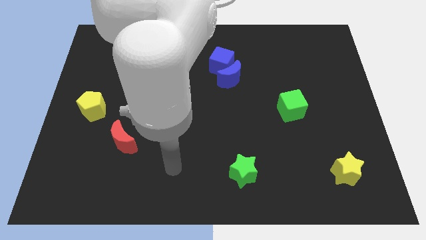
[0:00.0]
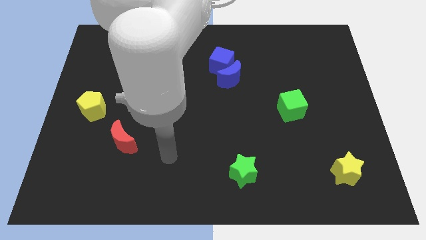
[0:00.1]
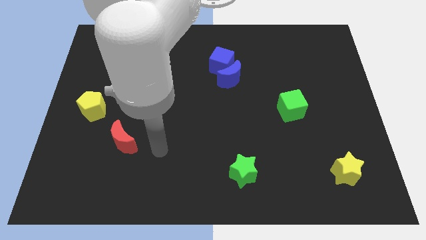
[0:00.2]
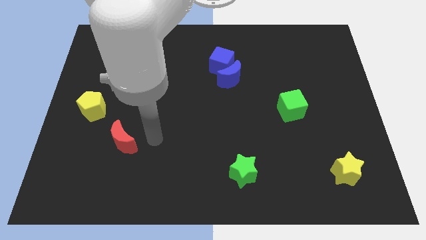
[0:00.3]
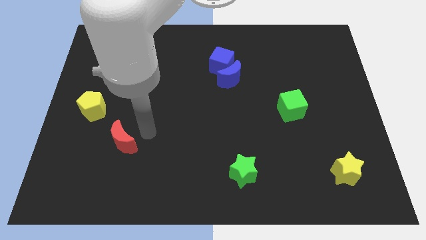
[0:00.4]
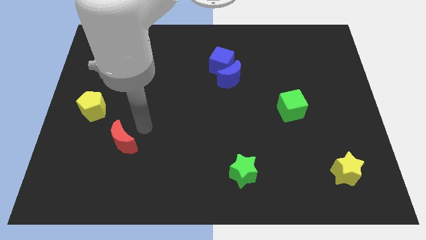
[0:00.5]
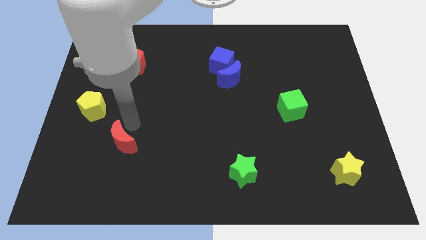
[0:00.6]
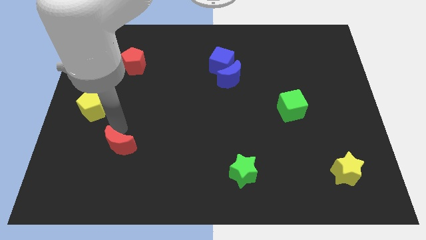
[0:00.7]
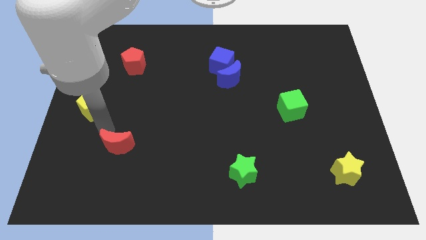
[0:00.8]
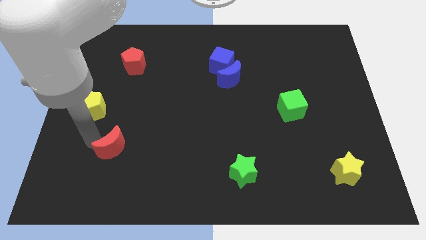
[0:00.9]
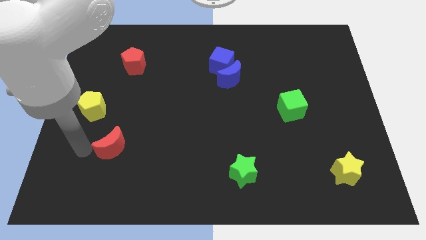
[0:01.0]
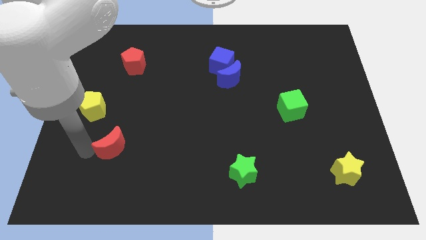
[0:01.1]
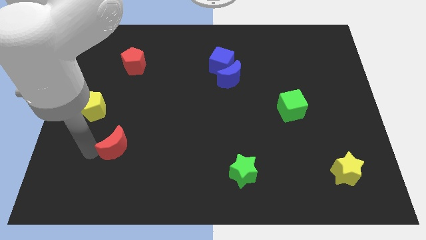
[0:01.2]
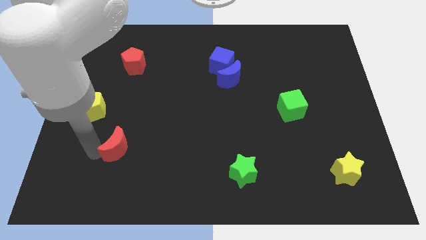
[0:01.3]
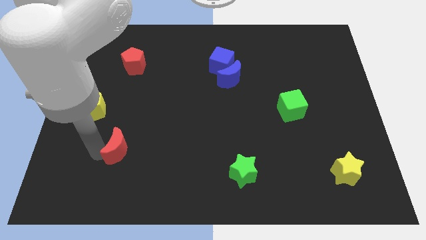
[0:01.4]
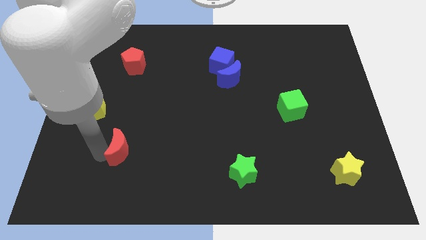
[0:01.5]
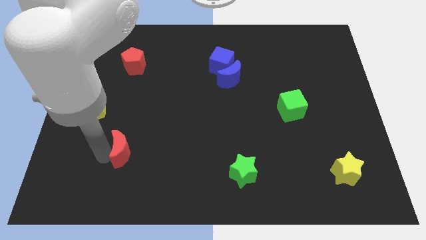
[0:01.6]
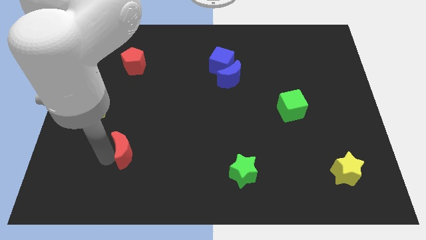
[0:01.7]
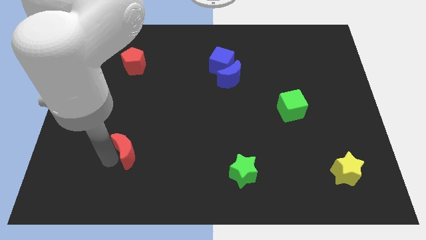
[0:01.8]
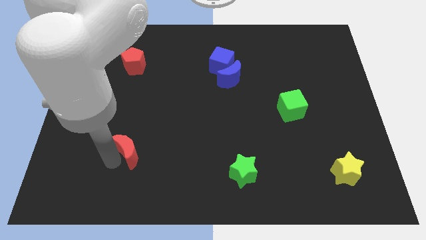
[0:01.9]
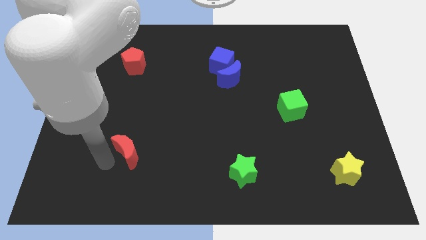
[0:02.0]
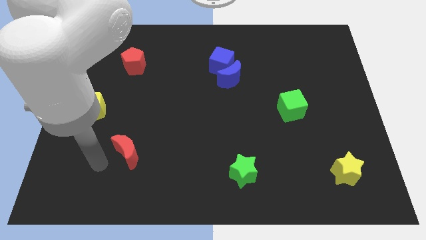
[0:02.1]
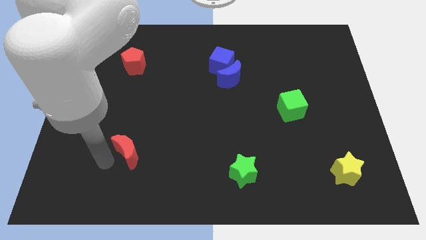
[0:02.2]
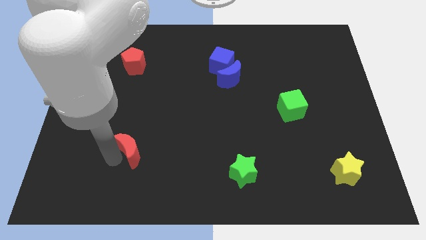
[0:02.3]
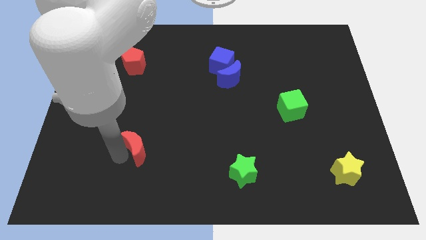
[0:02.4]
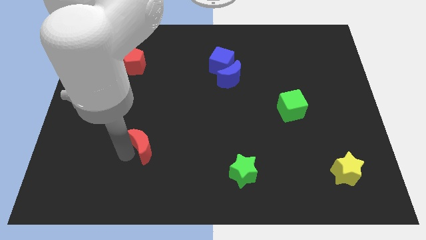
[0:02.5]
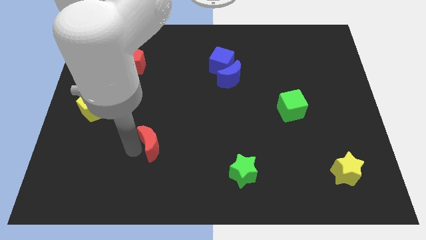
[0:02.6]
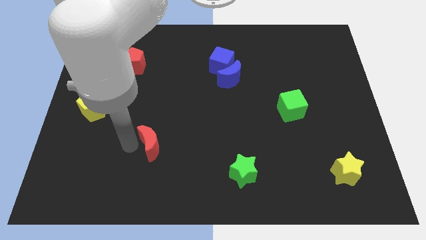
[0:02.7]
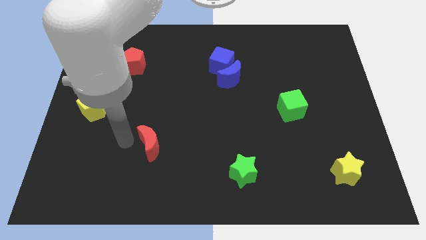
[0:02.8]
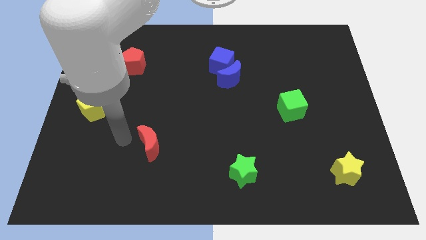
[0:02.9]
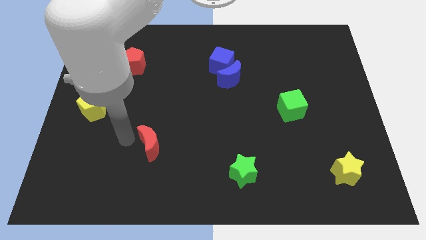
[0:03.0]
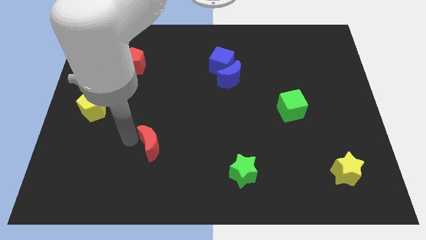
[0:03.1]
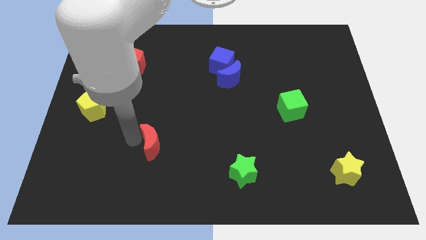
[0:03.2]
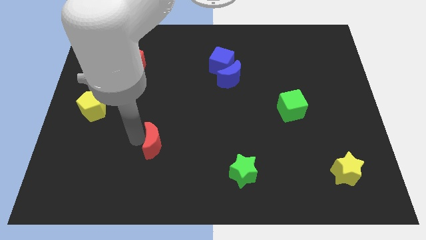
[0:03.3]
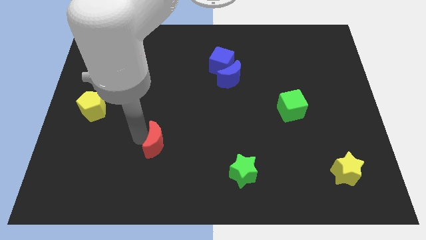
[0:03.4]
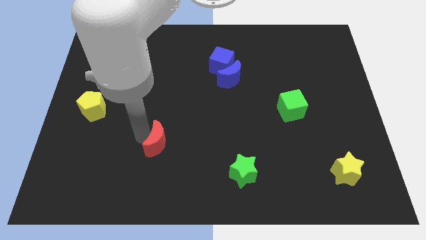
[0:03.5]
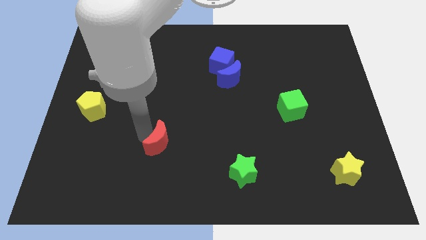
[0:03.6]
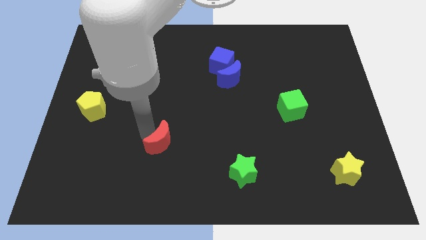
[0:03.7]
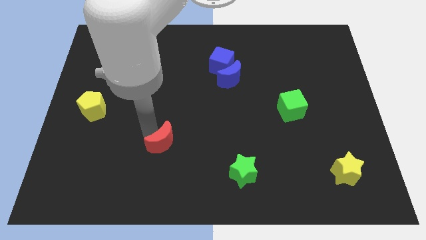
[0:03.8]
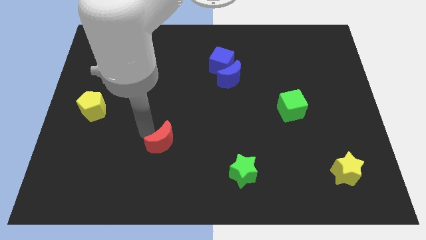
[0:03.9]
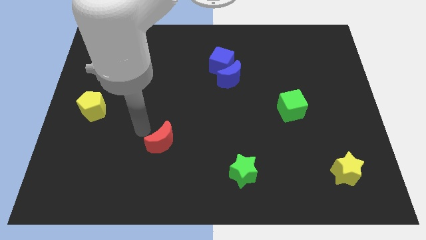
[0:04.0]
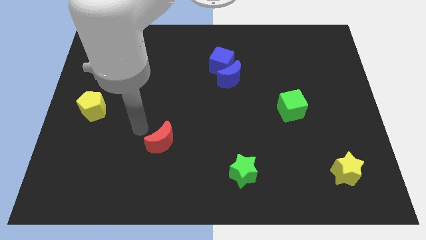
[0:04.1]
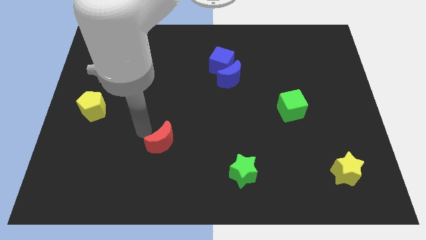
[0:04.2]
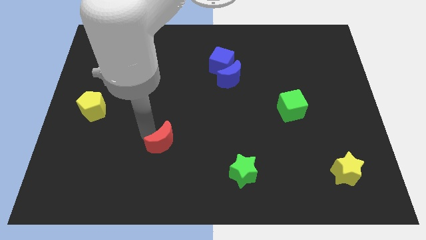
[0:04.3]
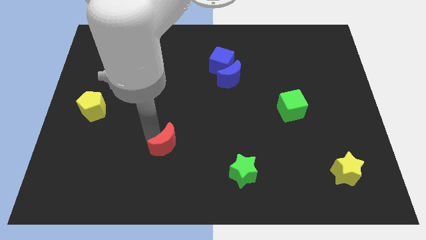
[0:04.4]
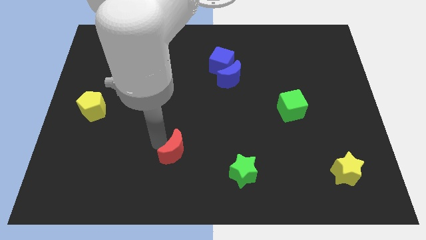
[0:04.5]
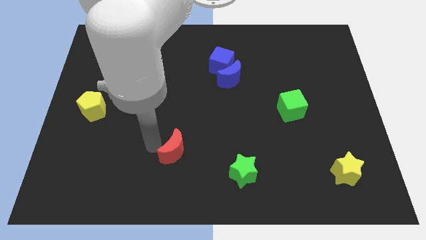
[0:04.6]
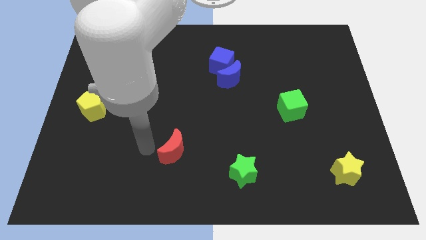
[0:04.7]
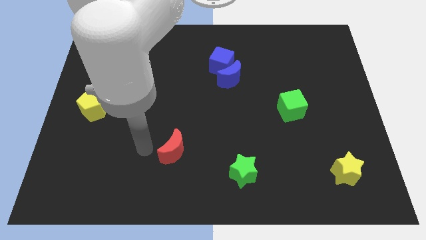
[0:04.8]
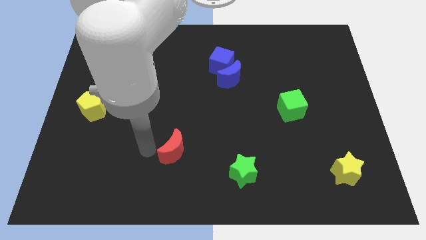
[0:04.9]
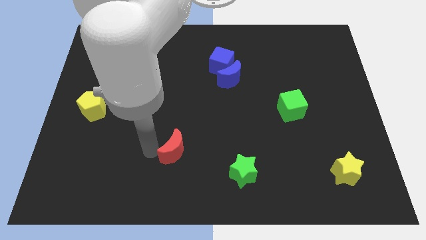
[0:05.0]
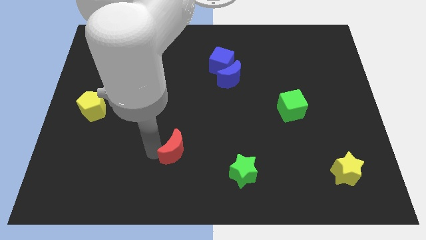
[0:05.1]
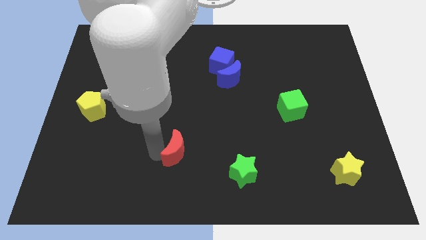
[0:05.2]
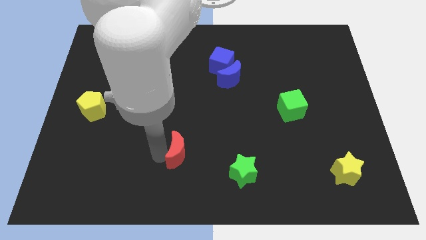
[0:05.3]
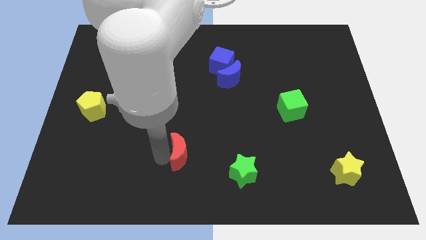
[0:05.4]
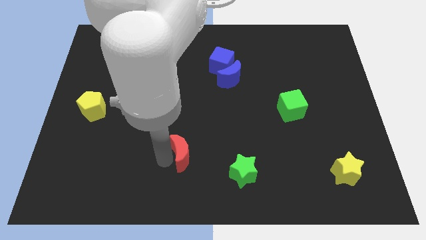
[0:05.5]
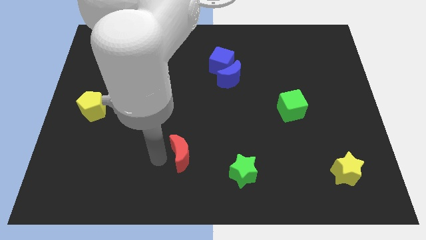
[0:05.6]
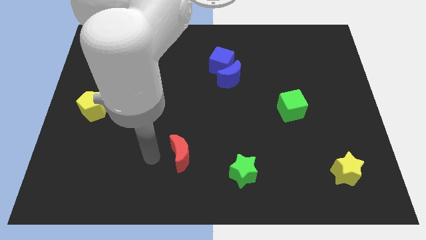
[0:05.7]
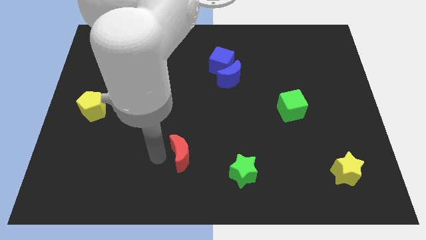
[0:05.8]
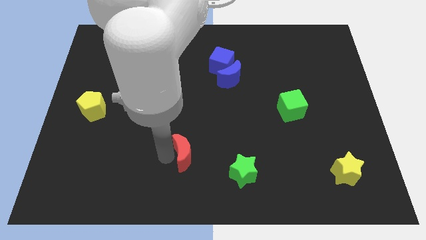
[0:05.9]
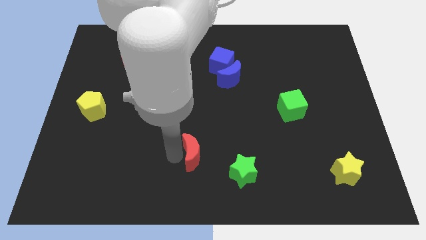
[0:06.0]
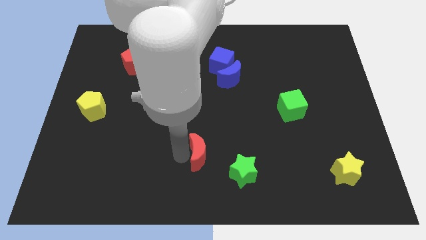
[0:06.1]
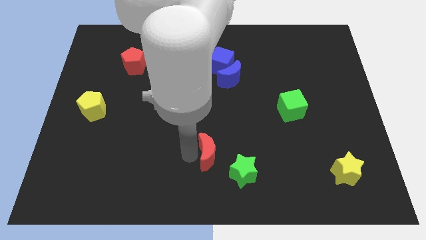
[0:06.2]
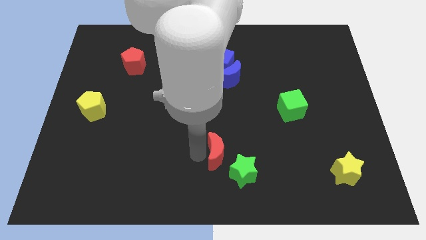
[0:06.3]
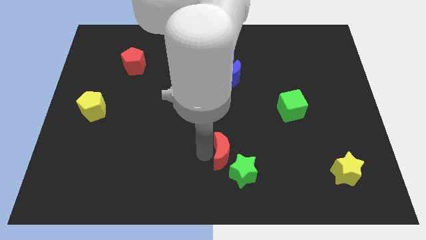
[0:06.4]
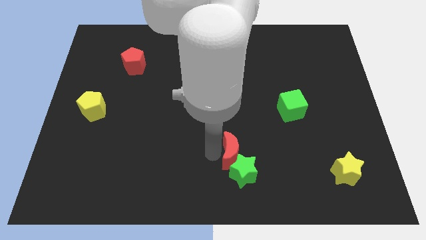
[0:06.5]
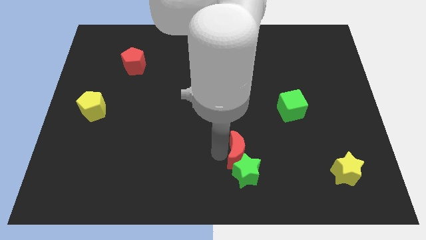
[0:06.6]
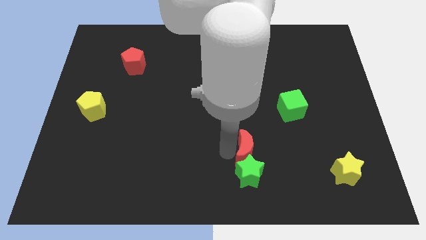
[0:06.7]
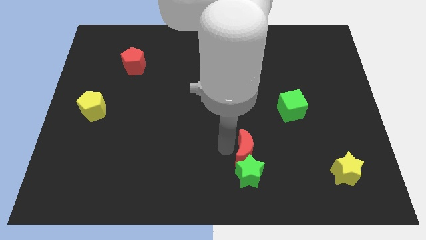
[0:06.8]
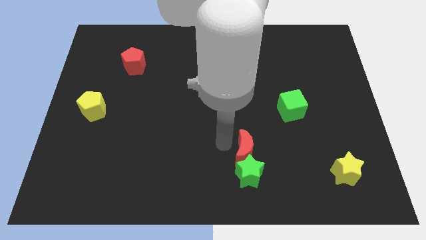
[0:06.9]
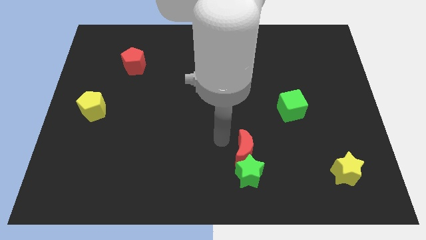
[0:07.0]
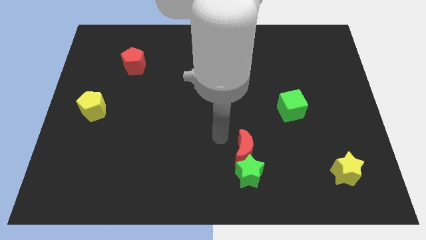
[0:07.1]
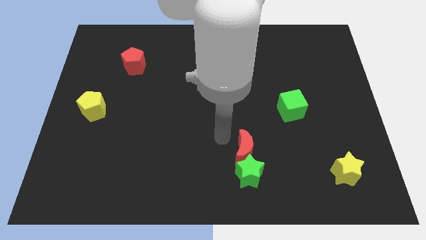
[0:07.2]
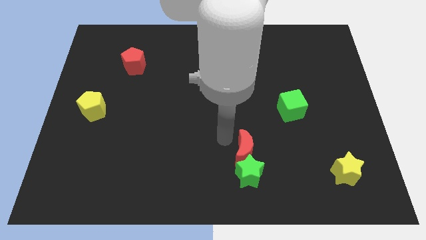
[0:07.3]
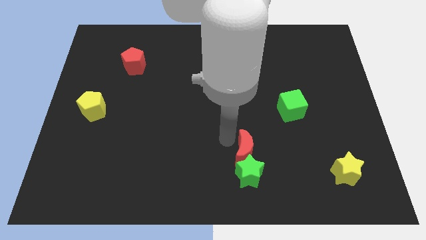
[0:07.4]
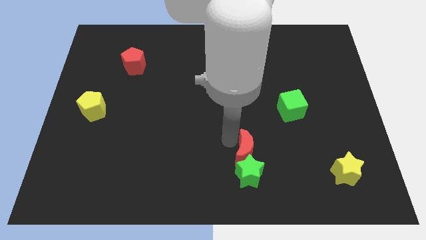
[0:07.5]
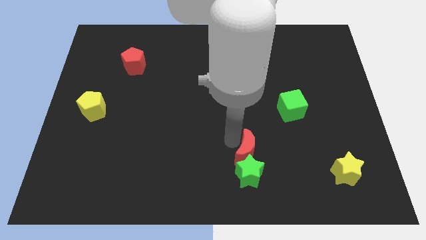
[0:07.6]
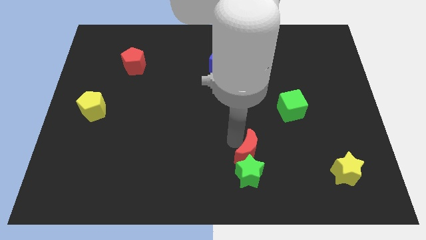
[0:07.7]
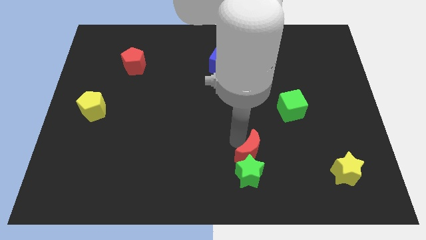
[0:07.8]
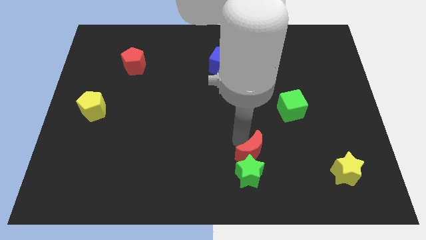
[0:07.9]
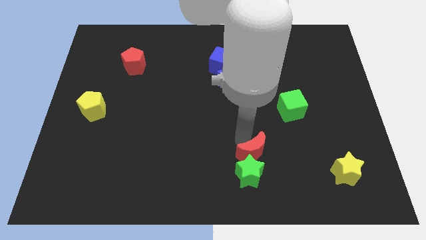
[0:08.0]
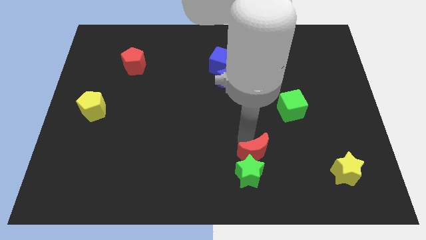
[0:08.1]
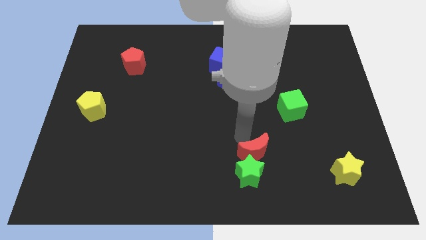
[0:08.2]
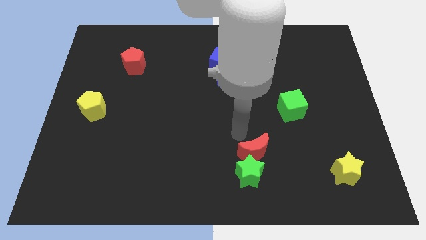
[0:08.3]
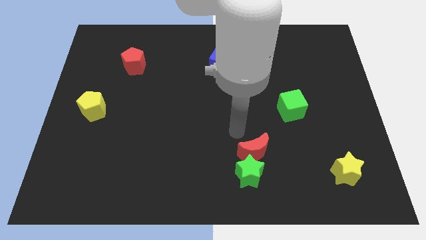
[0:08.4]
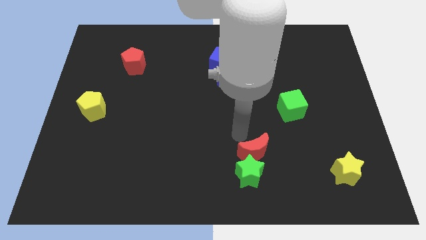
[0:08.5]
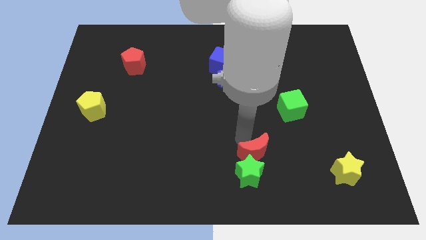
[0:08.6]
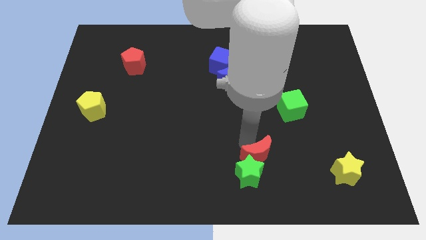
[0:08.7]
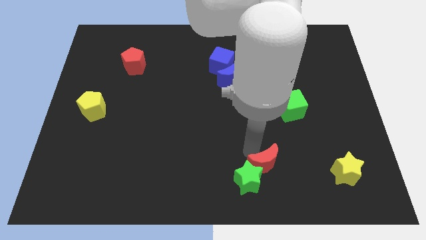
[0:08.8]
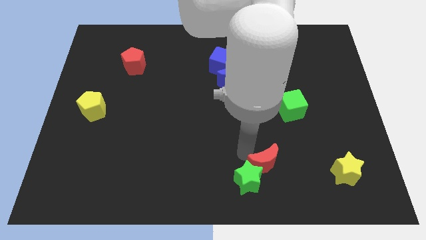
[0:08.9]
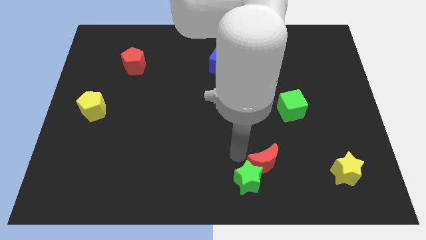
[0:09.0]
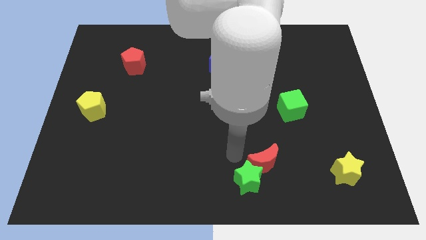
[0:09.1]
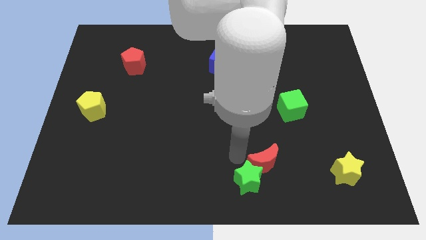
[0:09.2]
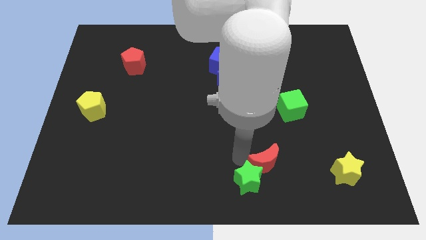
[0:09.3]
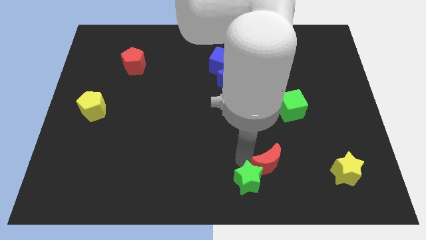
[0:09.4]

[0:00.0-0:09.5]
move the red moon to the left side of the yellow star
